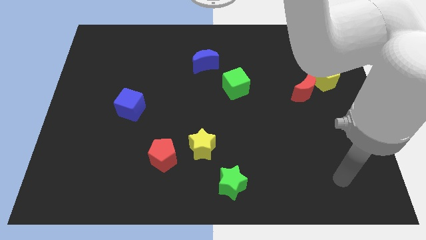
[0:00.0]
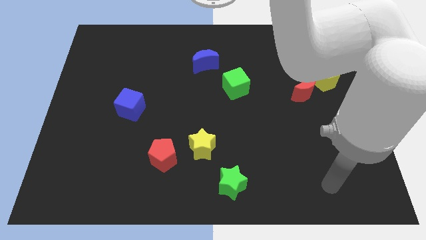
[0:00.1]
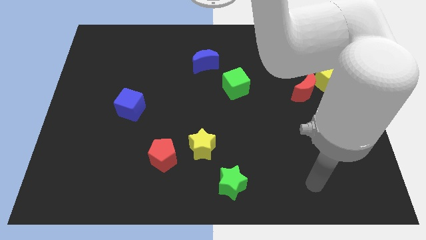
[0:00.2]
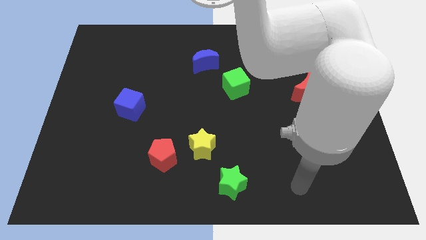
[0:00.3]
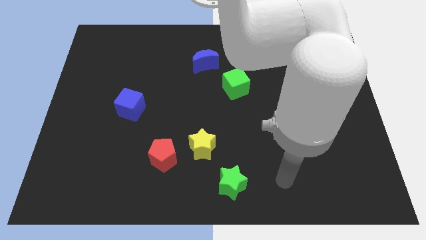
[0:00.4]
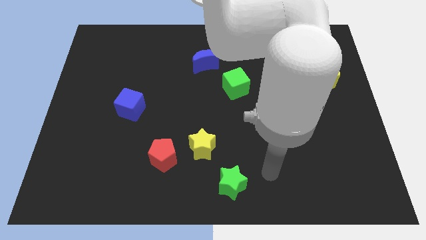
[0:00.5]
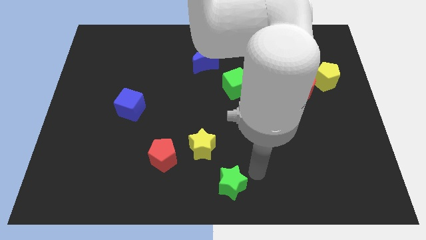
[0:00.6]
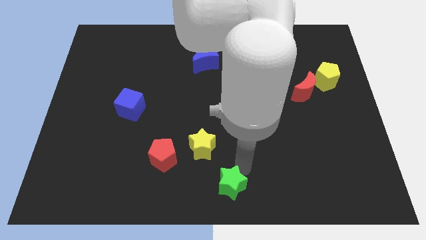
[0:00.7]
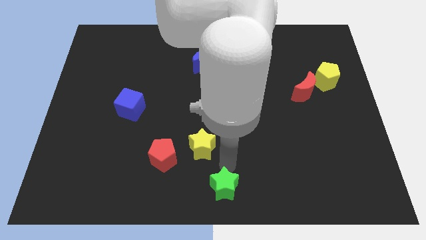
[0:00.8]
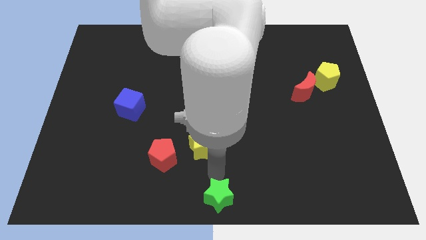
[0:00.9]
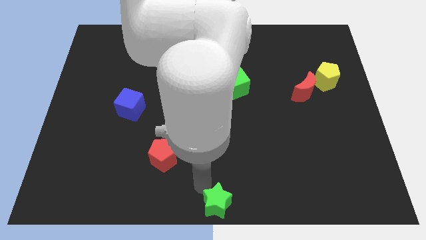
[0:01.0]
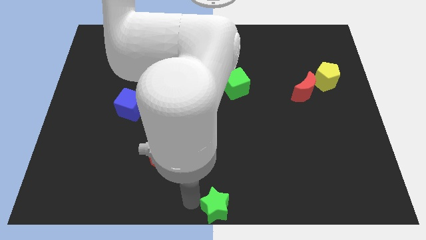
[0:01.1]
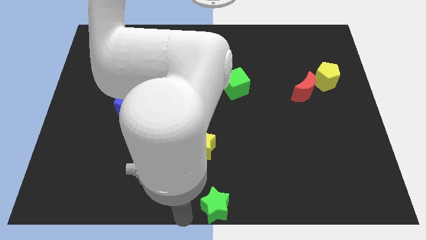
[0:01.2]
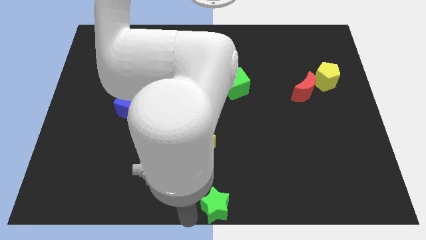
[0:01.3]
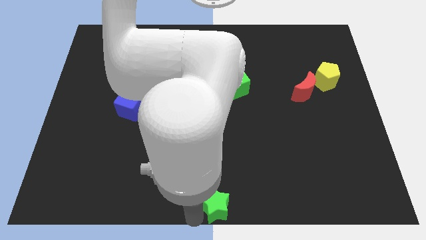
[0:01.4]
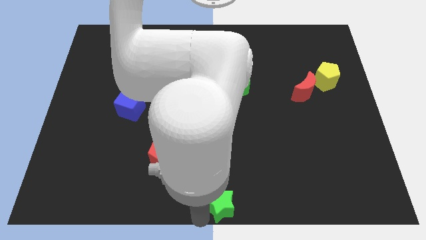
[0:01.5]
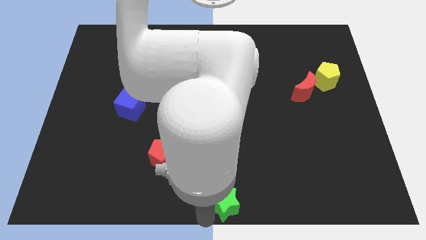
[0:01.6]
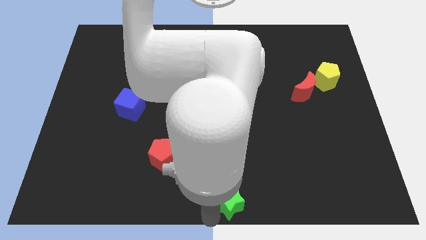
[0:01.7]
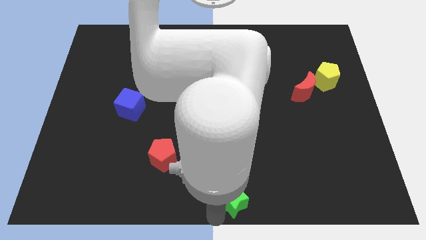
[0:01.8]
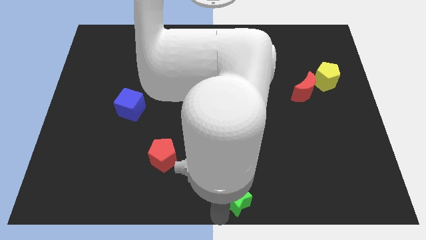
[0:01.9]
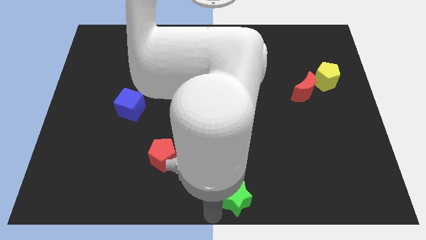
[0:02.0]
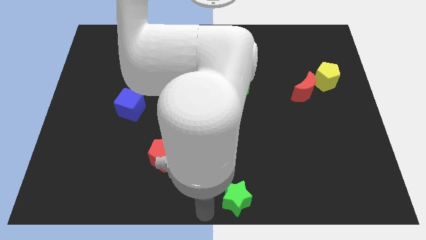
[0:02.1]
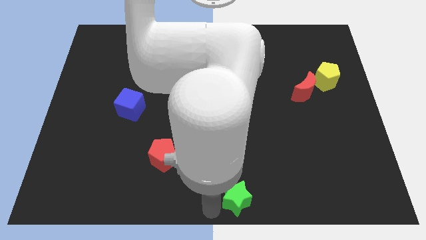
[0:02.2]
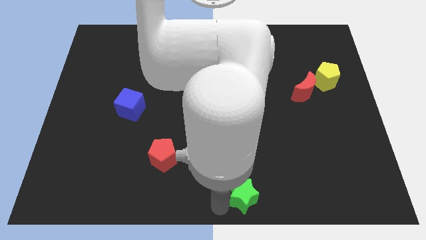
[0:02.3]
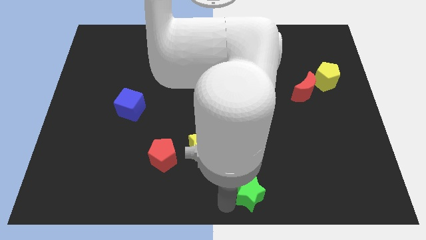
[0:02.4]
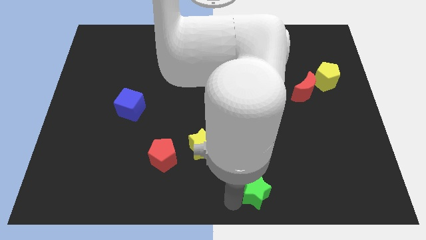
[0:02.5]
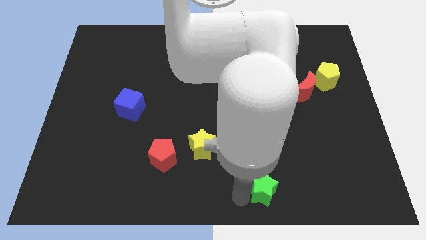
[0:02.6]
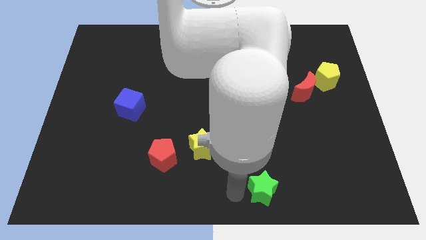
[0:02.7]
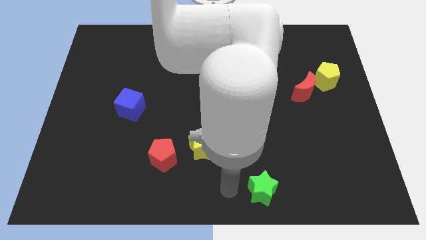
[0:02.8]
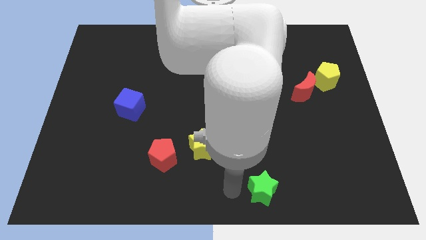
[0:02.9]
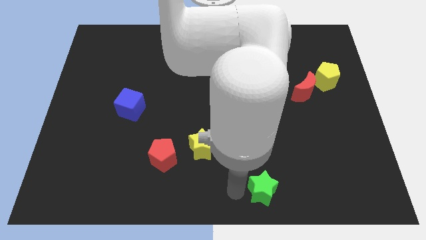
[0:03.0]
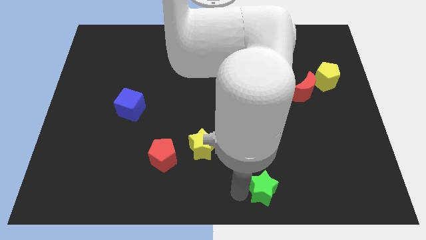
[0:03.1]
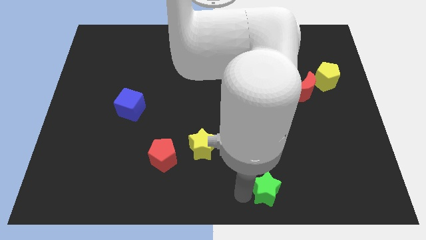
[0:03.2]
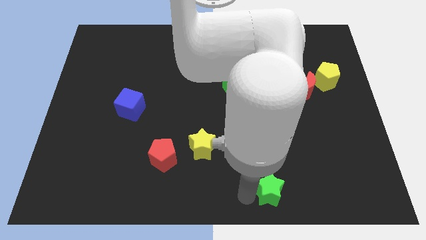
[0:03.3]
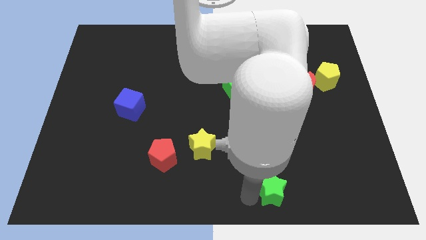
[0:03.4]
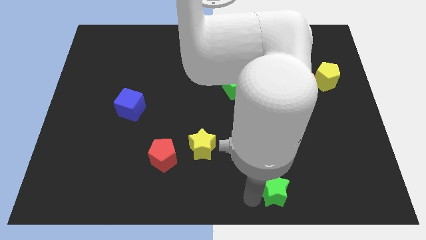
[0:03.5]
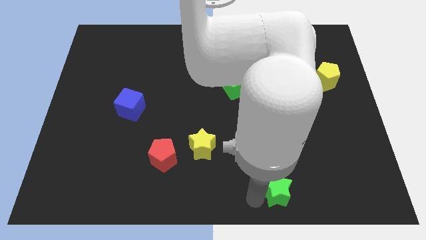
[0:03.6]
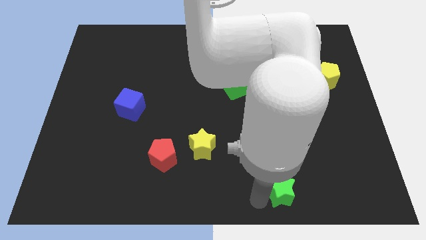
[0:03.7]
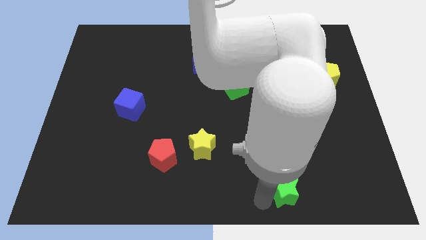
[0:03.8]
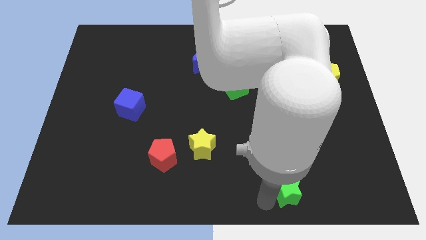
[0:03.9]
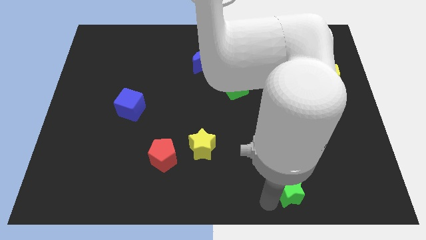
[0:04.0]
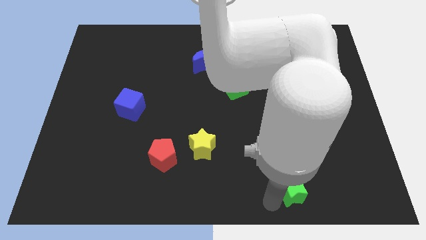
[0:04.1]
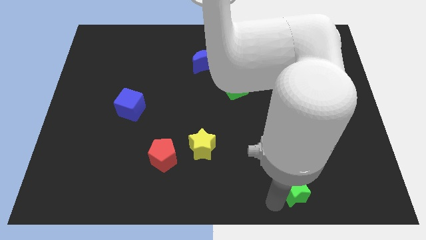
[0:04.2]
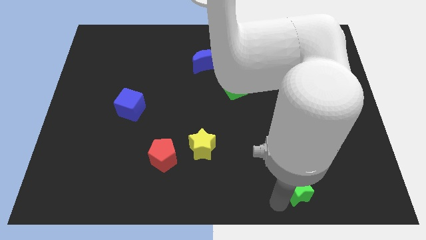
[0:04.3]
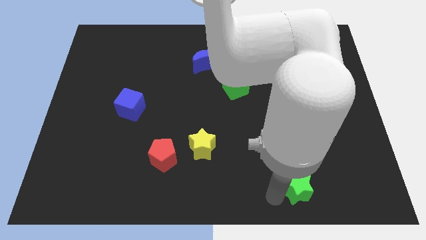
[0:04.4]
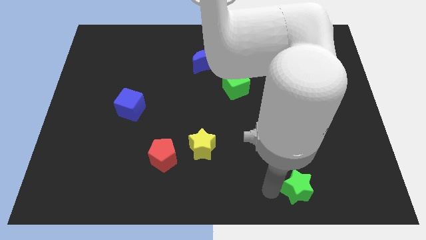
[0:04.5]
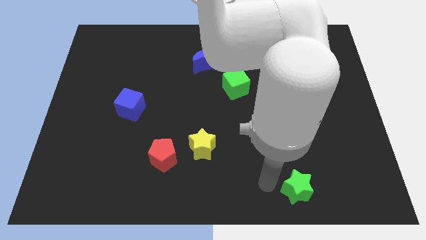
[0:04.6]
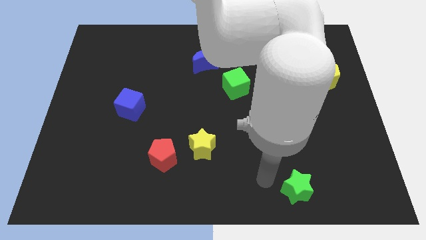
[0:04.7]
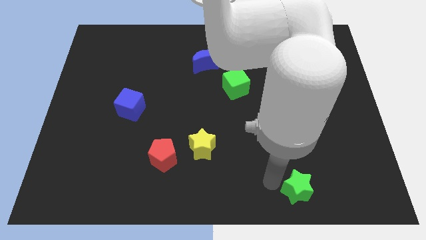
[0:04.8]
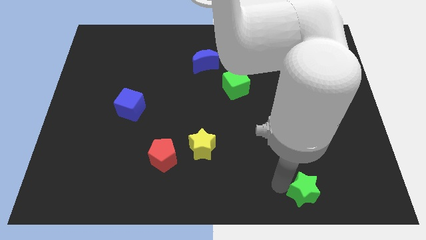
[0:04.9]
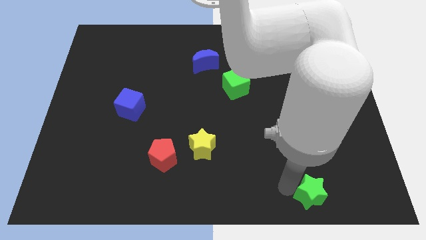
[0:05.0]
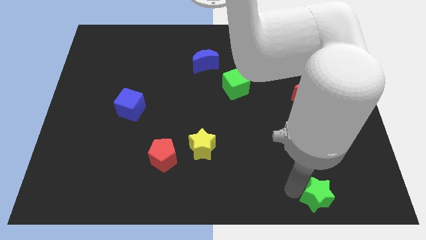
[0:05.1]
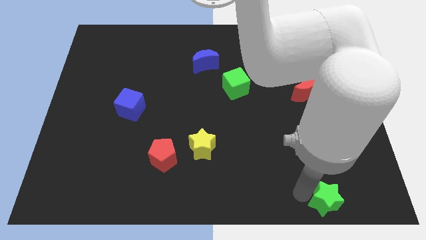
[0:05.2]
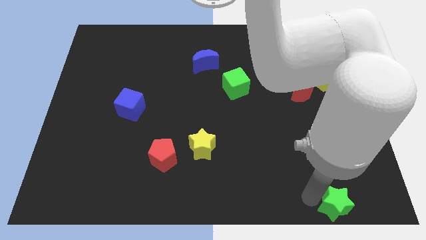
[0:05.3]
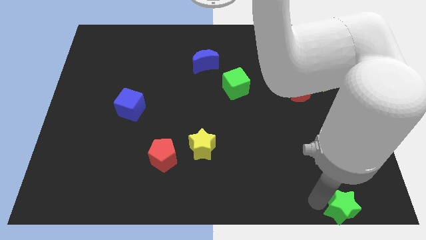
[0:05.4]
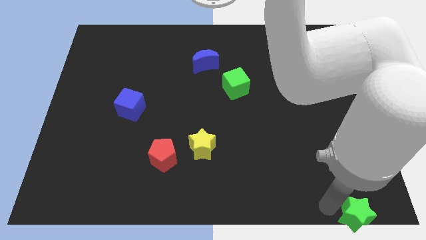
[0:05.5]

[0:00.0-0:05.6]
slide the green star to the bottom right of the board
